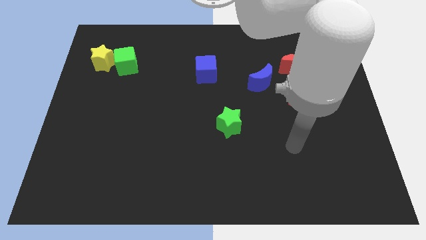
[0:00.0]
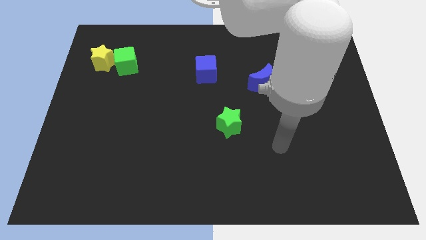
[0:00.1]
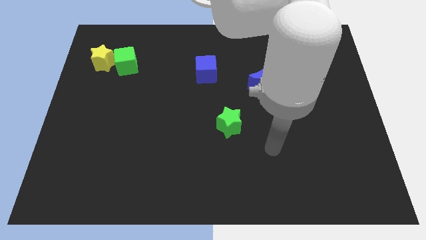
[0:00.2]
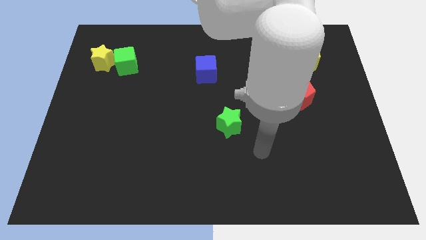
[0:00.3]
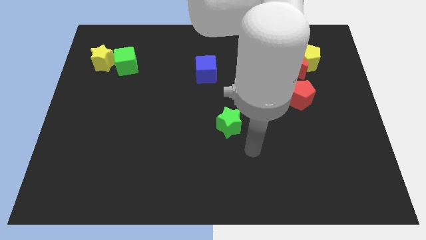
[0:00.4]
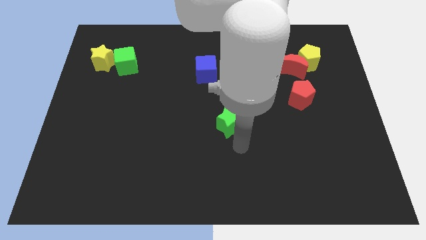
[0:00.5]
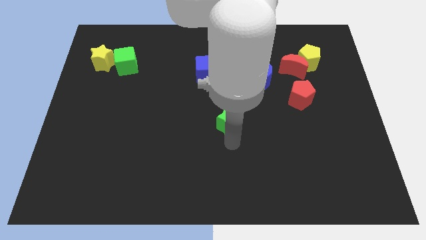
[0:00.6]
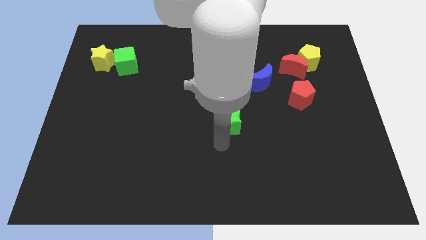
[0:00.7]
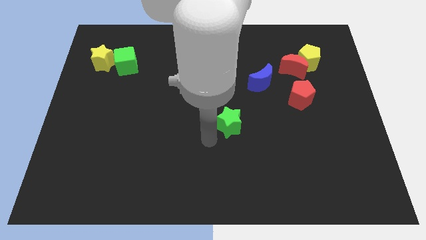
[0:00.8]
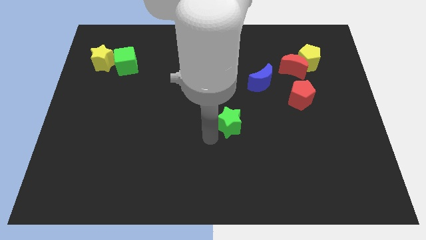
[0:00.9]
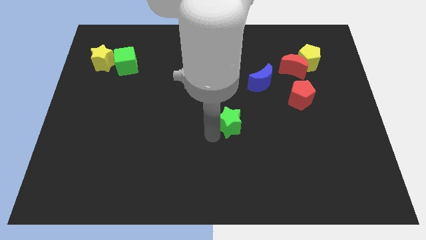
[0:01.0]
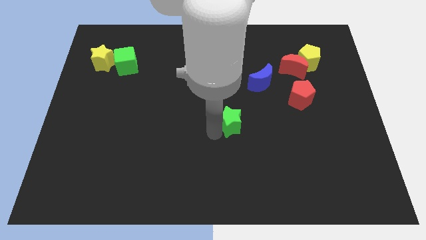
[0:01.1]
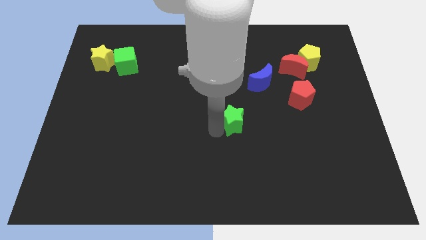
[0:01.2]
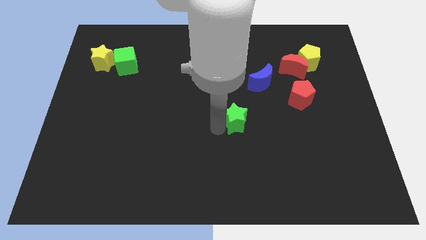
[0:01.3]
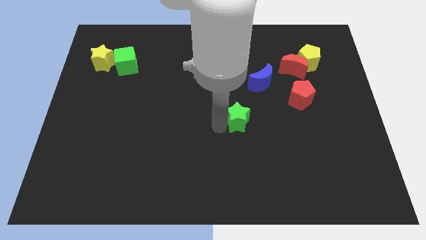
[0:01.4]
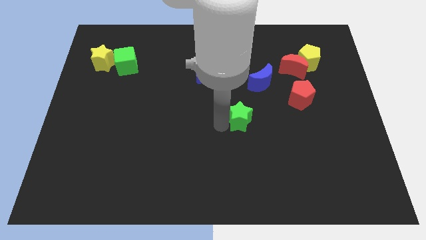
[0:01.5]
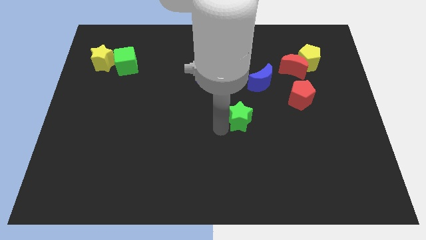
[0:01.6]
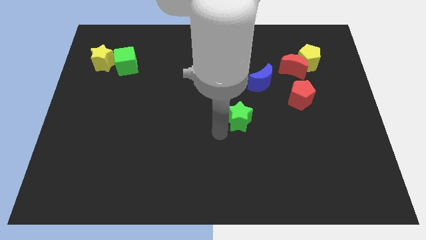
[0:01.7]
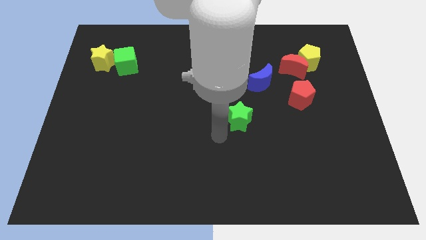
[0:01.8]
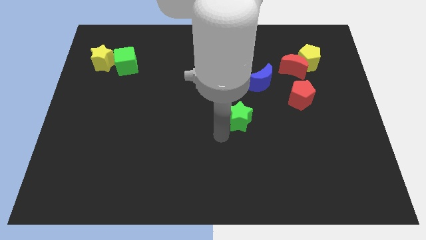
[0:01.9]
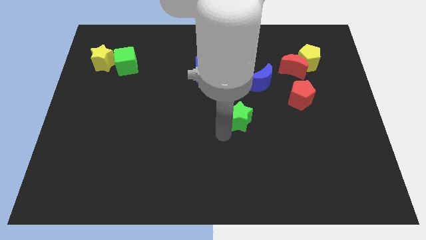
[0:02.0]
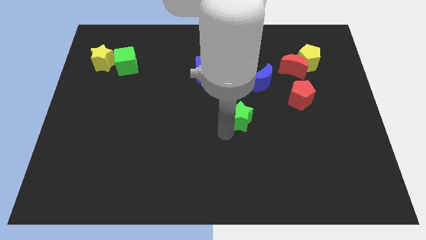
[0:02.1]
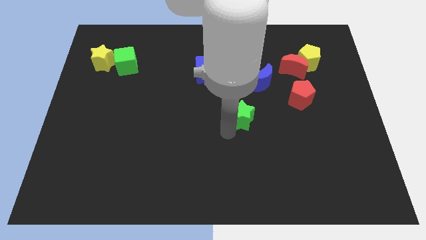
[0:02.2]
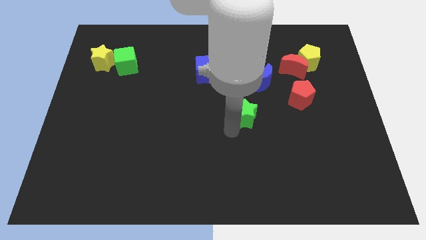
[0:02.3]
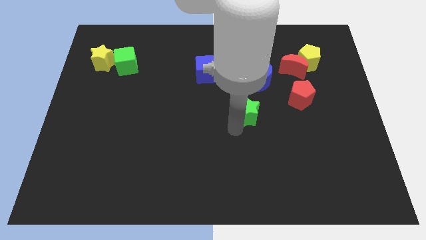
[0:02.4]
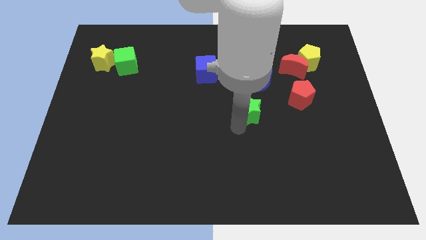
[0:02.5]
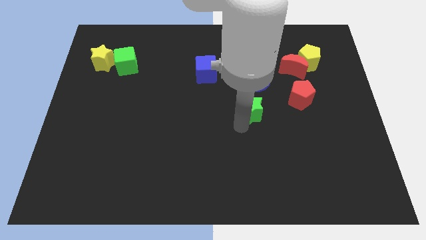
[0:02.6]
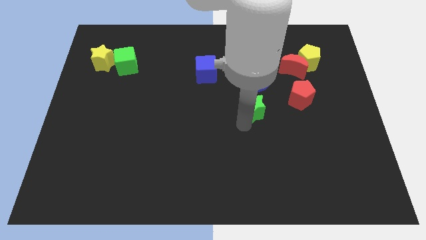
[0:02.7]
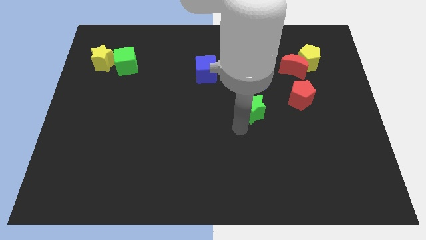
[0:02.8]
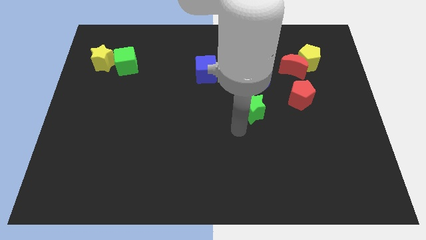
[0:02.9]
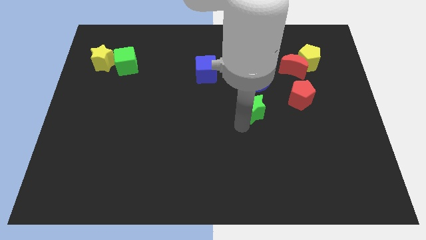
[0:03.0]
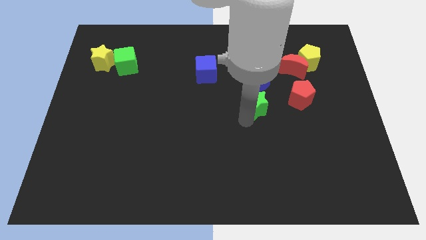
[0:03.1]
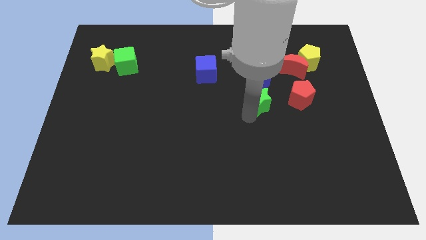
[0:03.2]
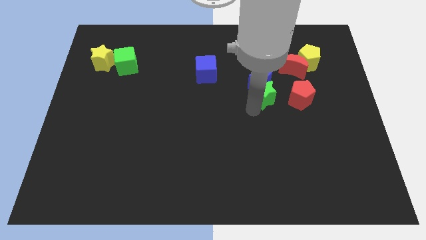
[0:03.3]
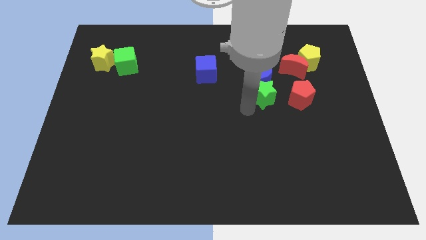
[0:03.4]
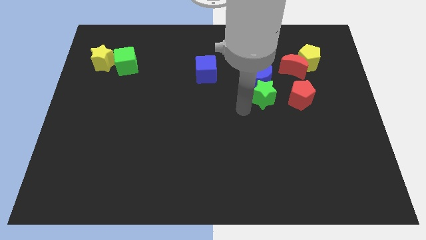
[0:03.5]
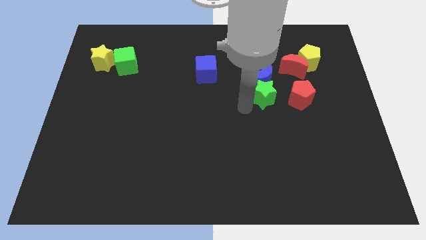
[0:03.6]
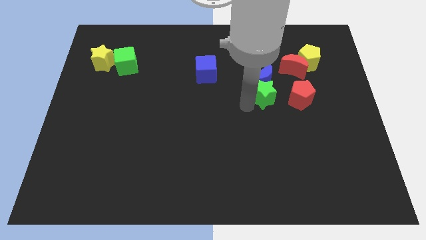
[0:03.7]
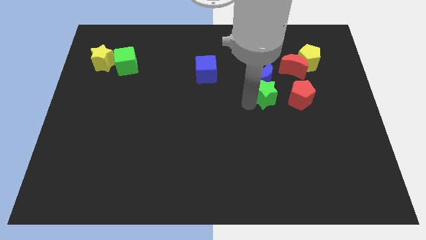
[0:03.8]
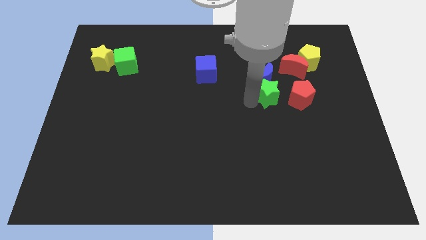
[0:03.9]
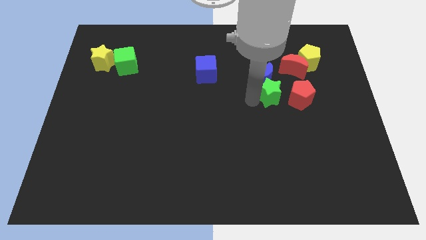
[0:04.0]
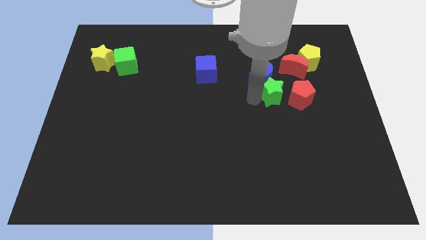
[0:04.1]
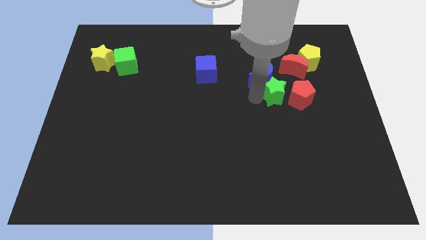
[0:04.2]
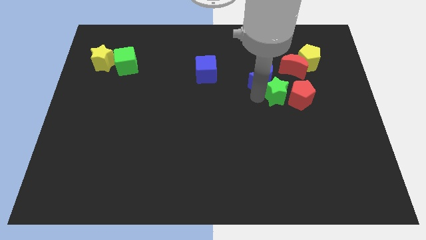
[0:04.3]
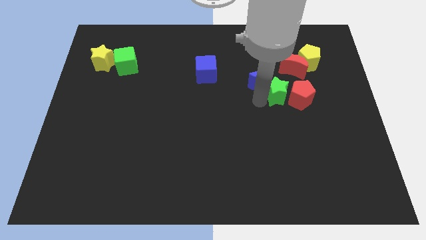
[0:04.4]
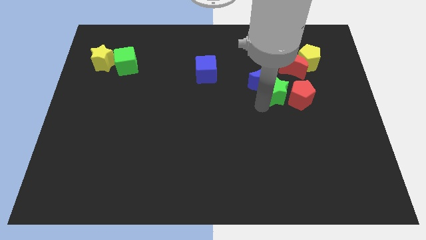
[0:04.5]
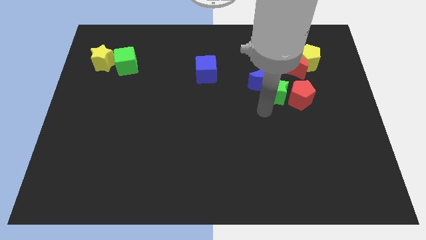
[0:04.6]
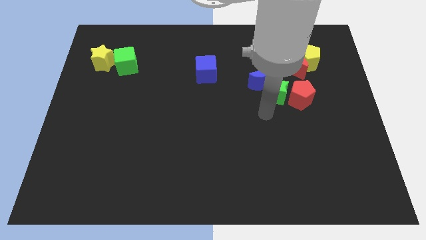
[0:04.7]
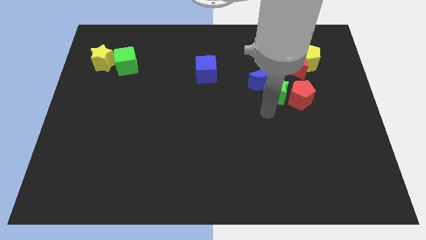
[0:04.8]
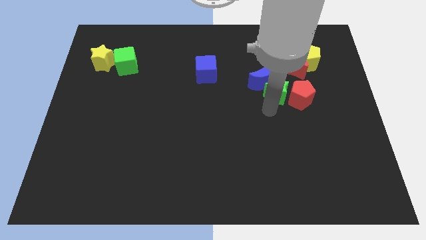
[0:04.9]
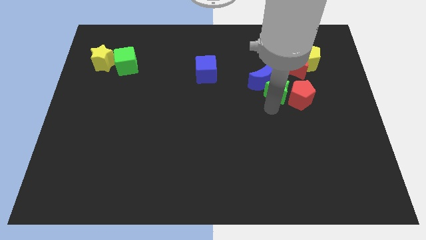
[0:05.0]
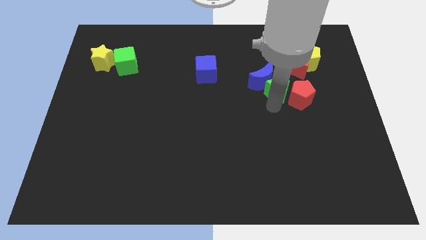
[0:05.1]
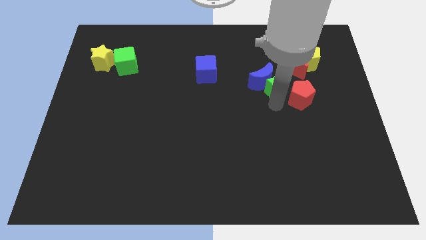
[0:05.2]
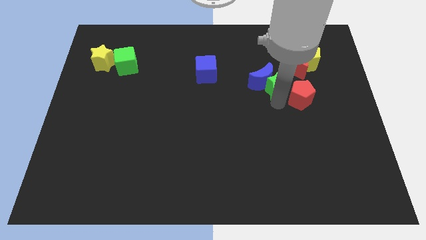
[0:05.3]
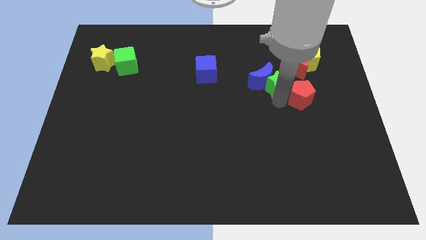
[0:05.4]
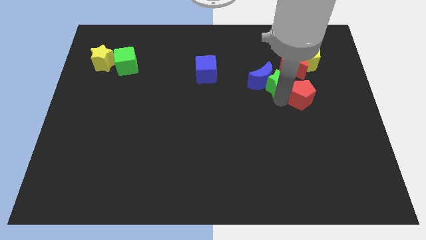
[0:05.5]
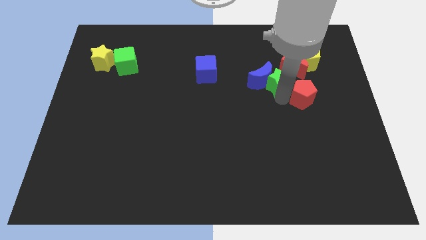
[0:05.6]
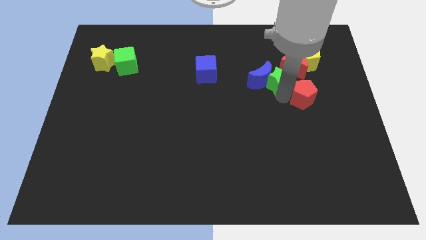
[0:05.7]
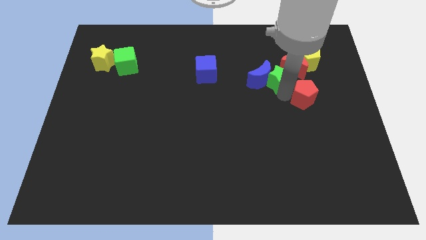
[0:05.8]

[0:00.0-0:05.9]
push the green star next to the red moon

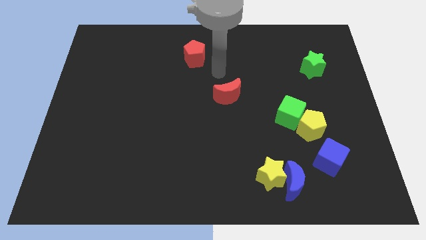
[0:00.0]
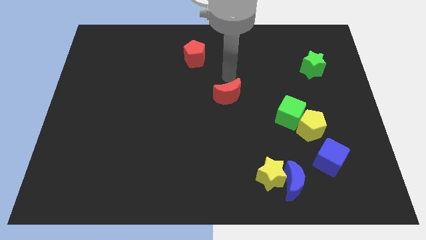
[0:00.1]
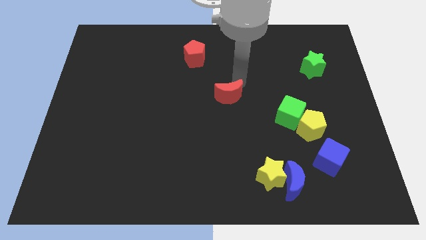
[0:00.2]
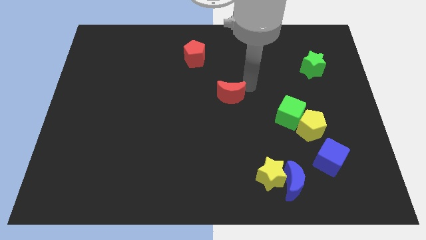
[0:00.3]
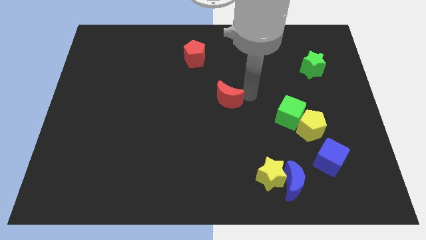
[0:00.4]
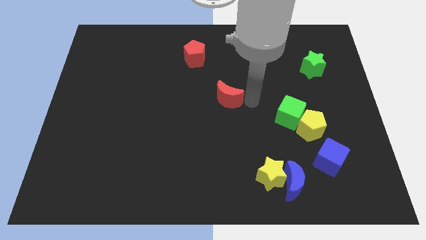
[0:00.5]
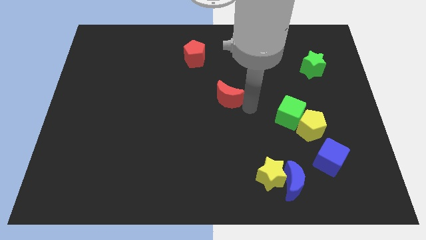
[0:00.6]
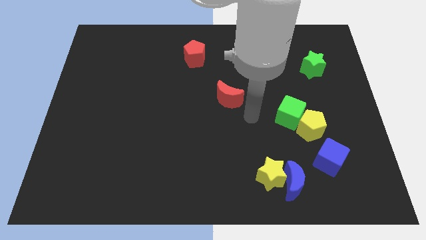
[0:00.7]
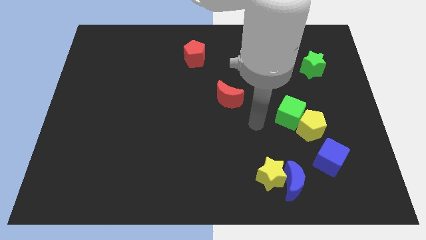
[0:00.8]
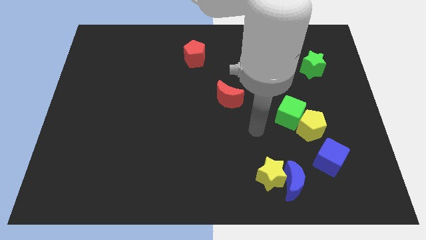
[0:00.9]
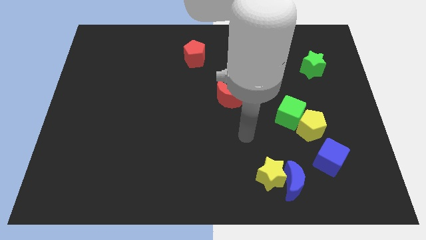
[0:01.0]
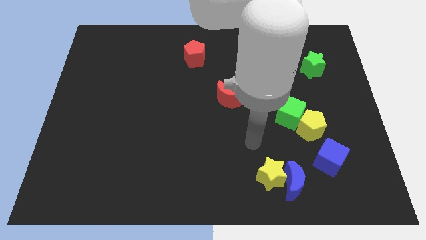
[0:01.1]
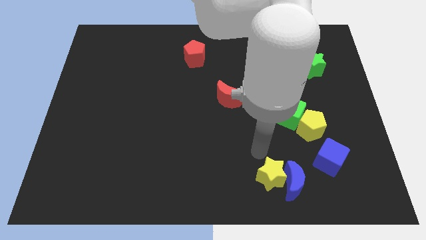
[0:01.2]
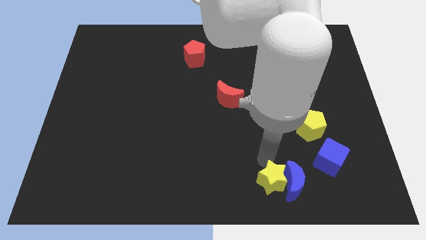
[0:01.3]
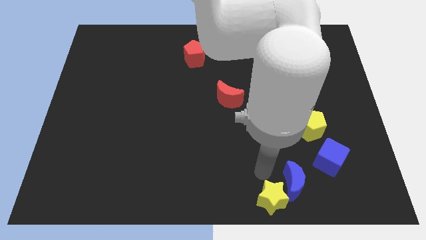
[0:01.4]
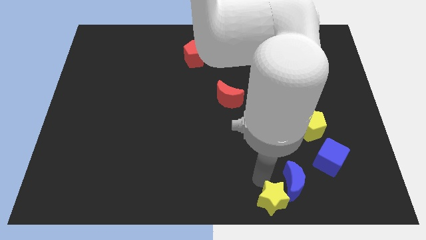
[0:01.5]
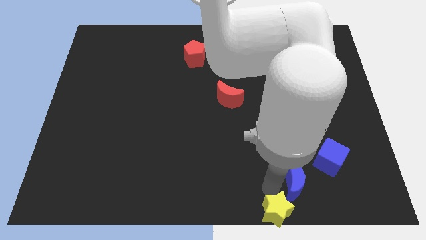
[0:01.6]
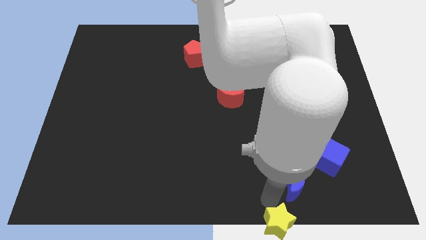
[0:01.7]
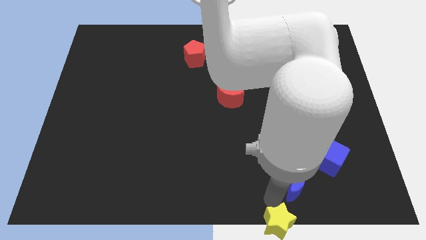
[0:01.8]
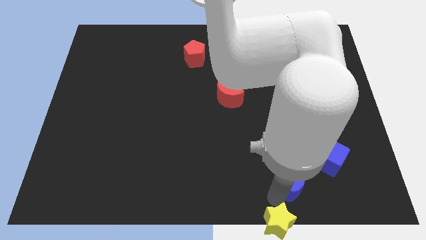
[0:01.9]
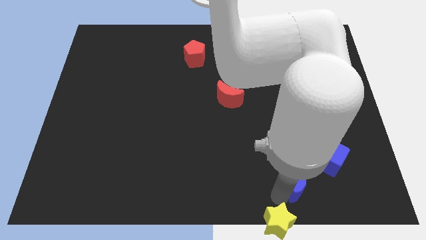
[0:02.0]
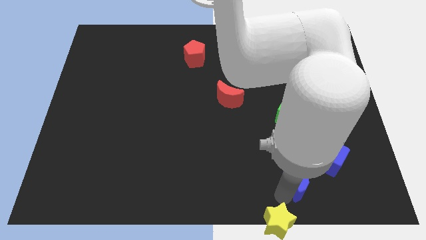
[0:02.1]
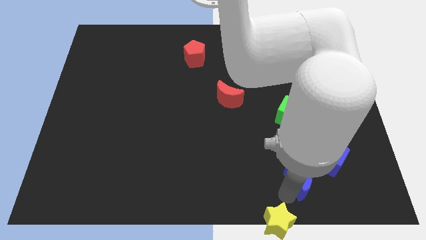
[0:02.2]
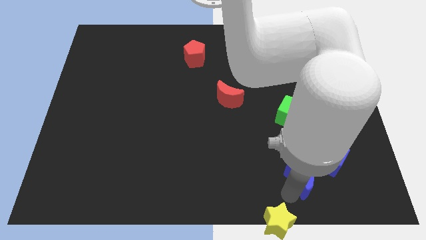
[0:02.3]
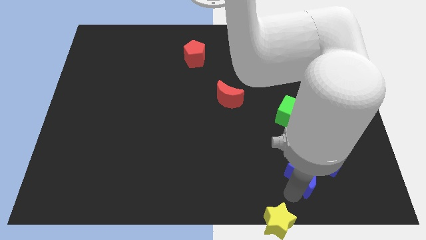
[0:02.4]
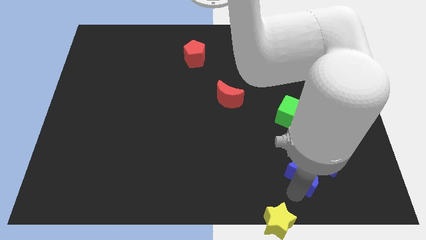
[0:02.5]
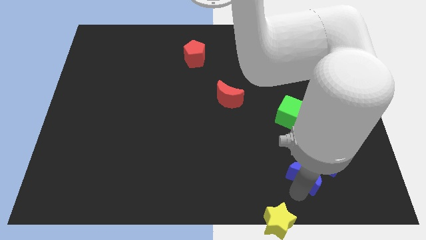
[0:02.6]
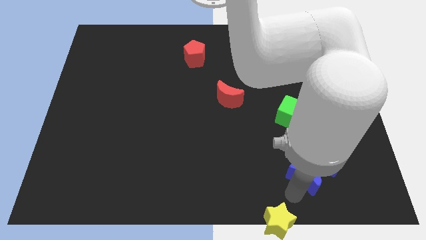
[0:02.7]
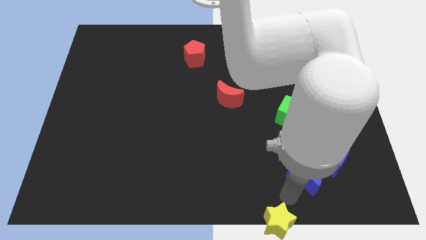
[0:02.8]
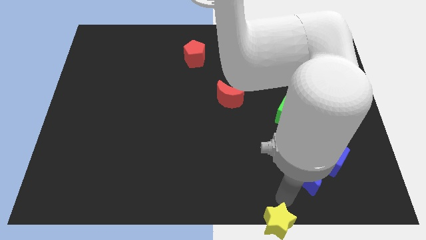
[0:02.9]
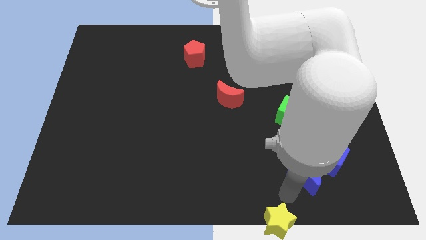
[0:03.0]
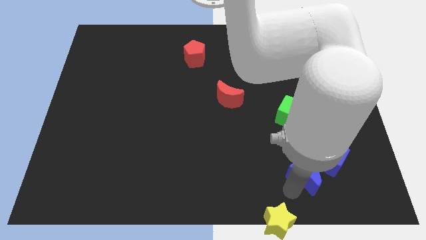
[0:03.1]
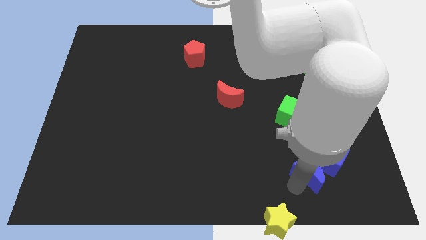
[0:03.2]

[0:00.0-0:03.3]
slide the blue moon next to the blue cube
